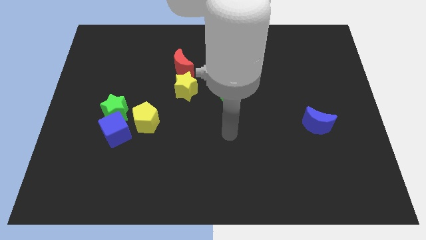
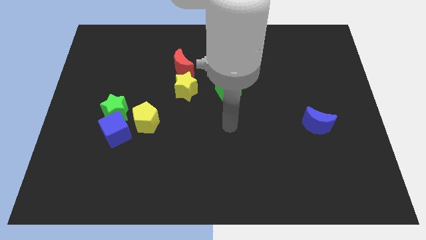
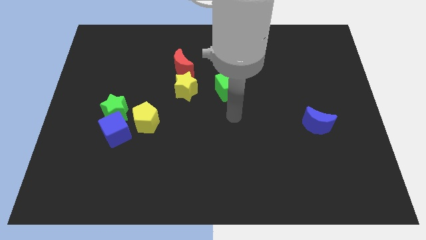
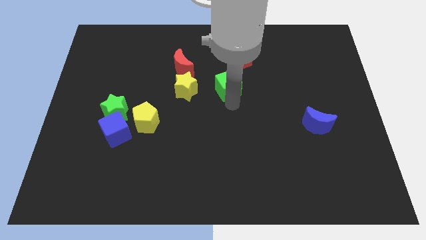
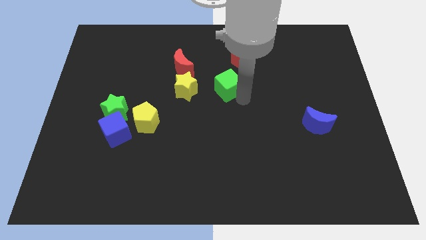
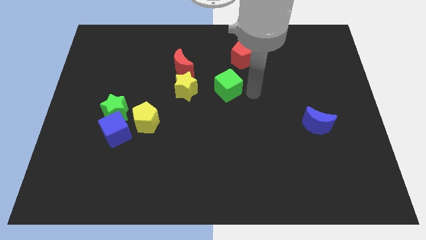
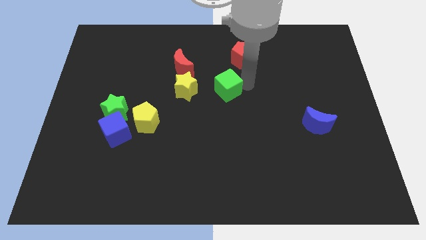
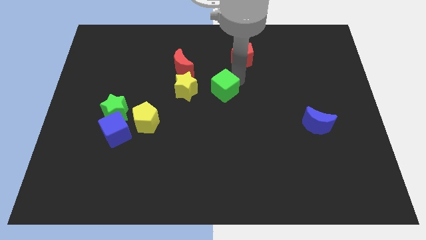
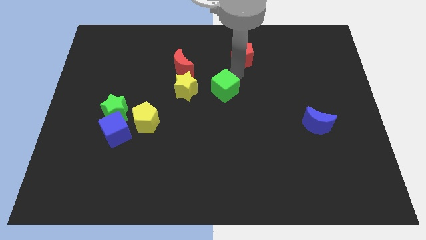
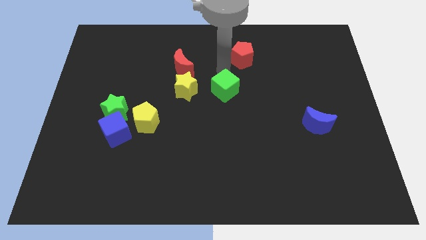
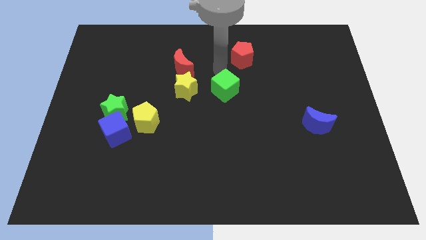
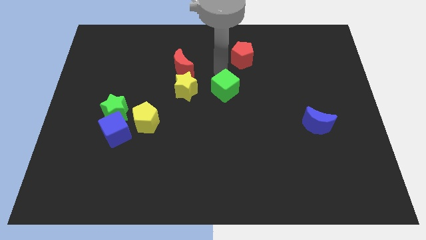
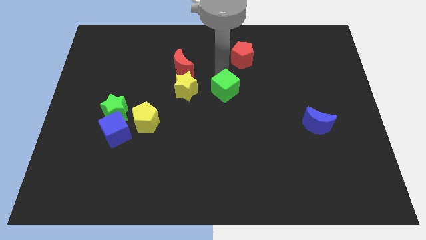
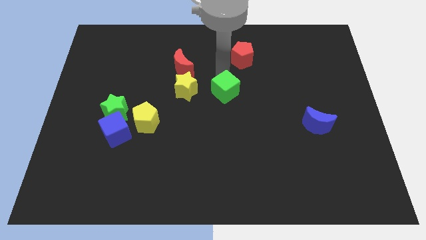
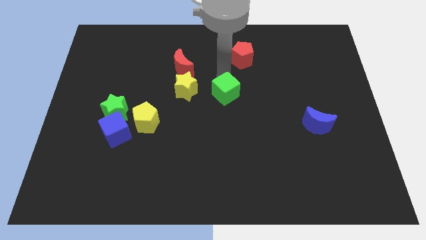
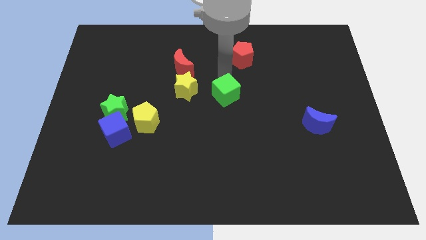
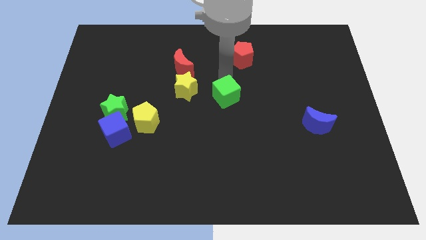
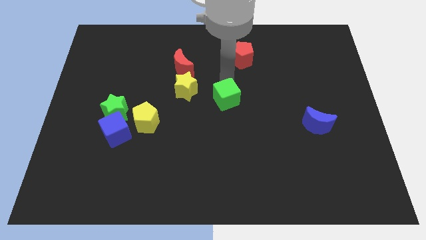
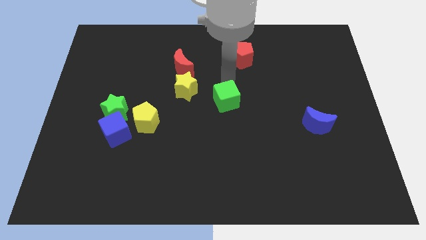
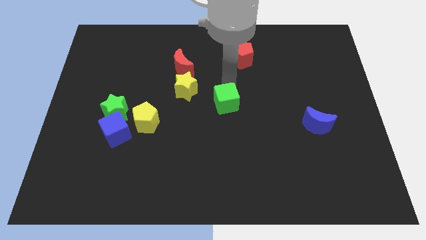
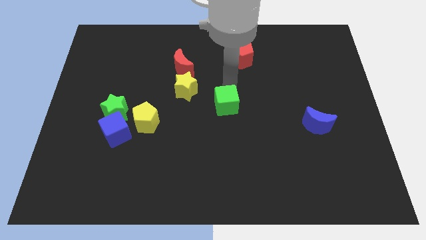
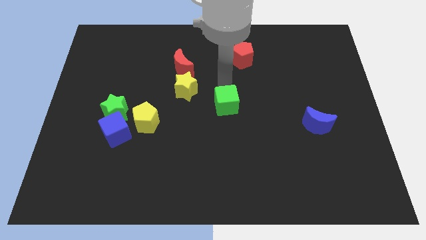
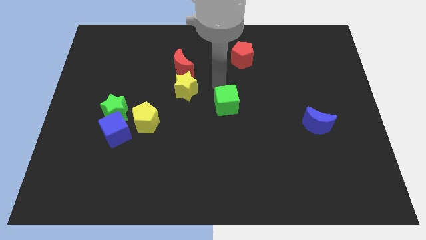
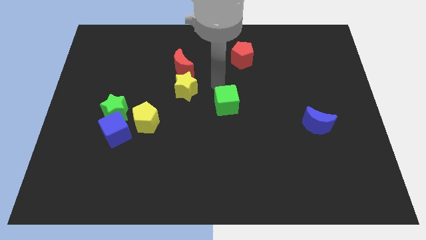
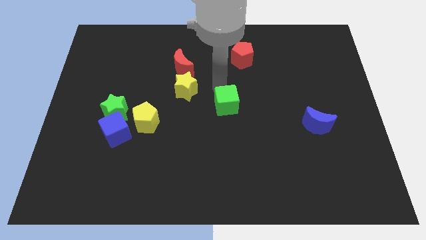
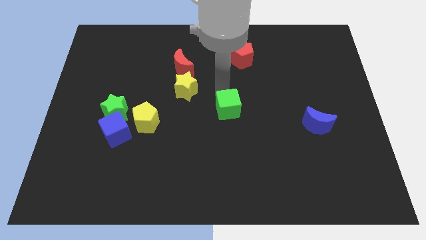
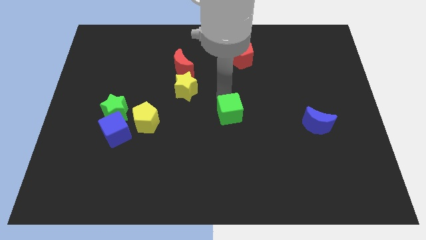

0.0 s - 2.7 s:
slide the green cube slightly down

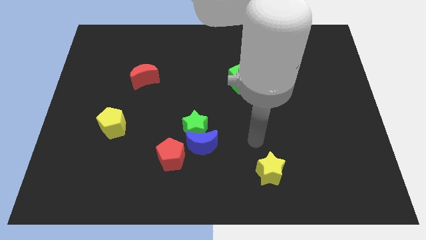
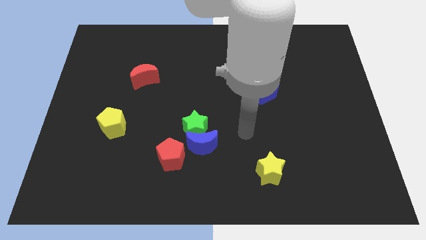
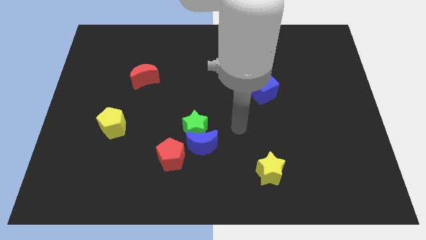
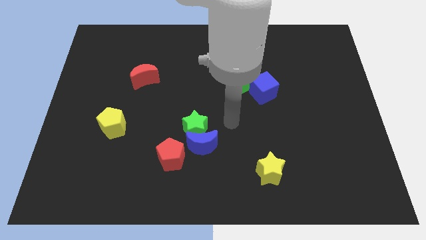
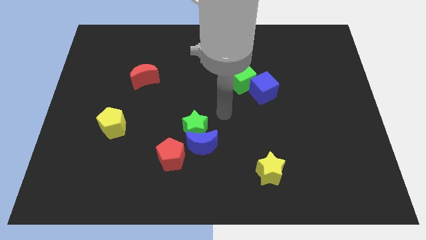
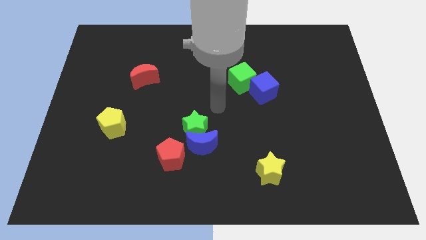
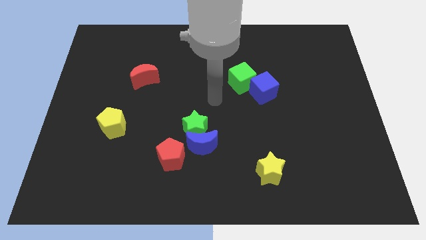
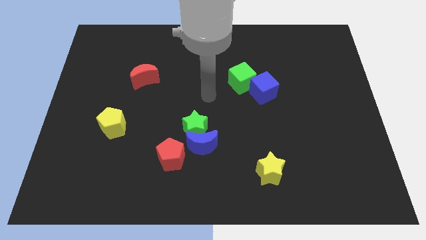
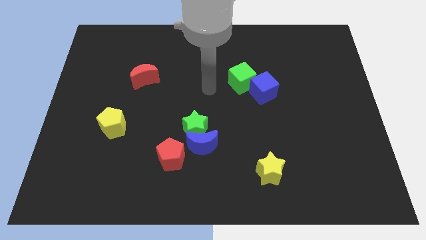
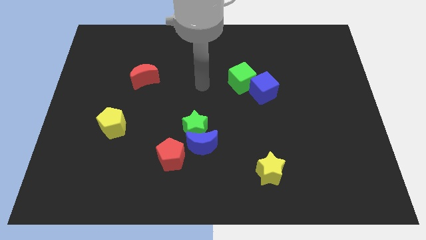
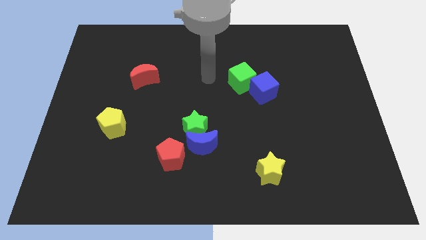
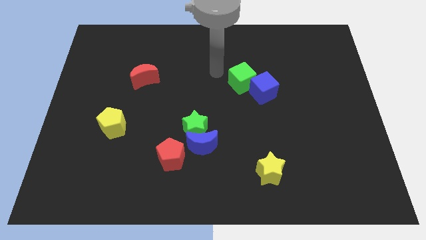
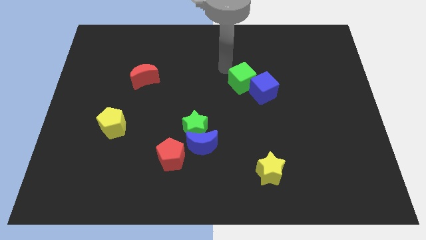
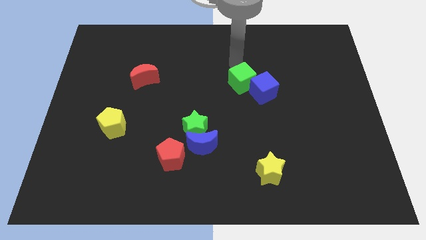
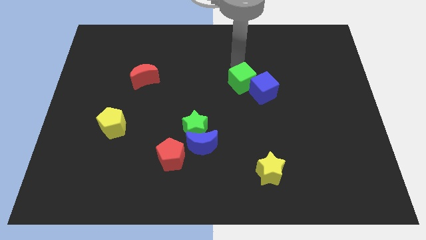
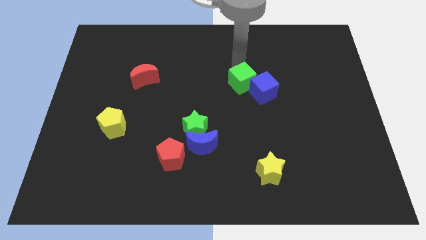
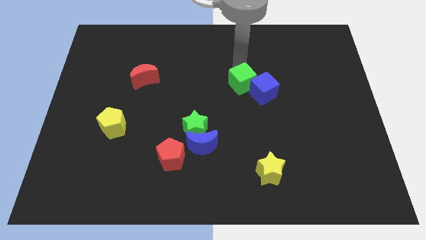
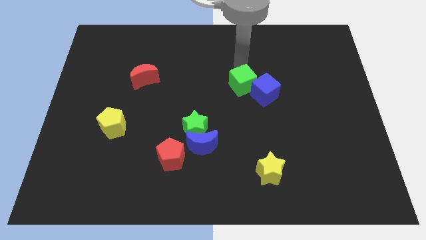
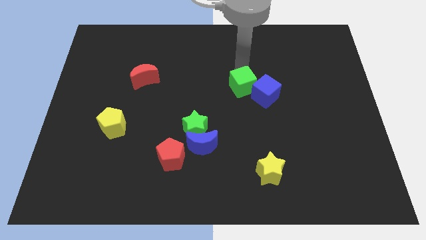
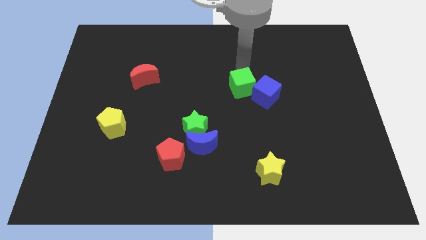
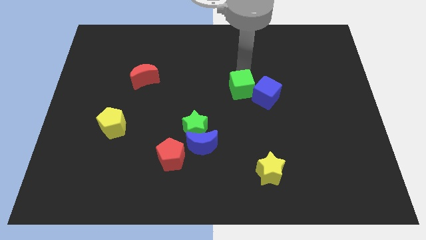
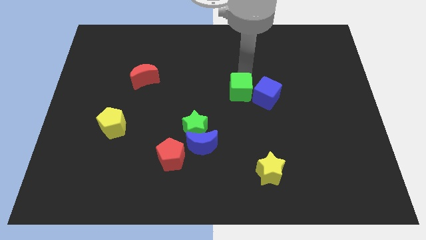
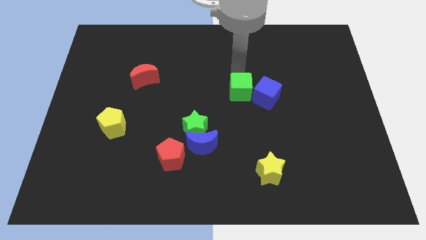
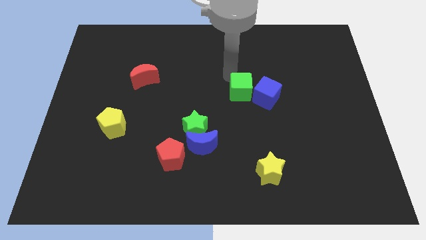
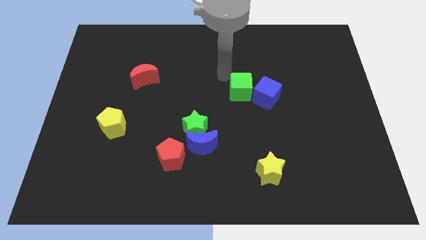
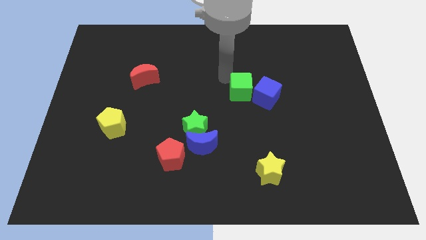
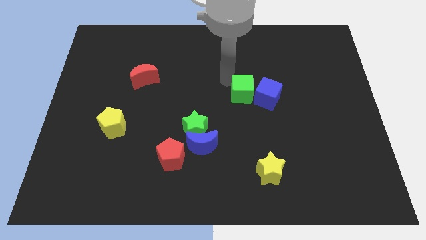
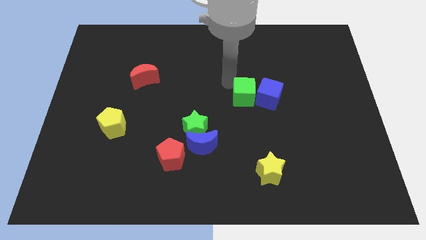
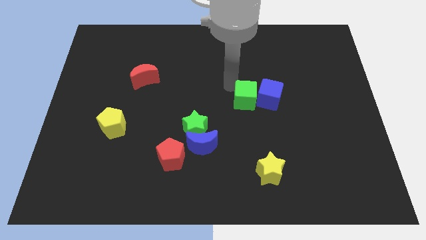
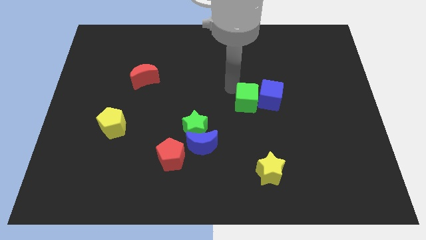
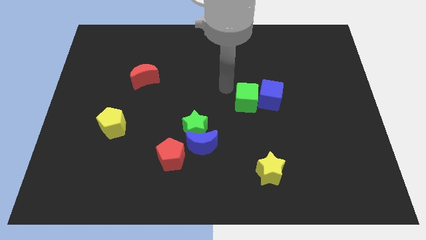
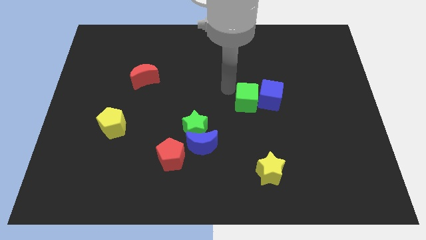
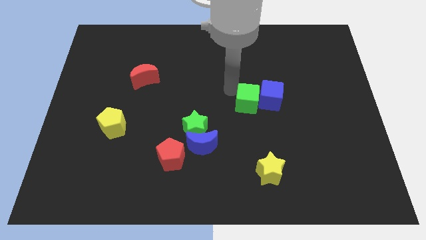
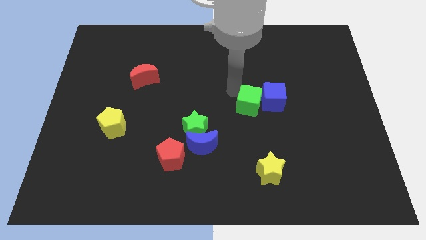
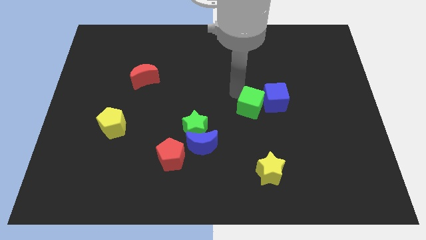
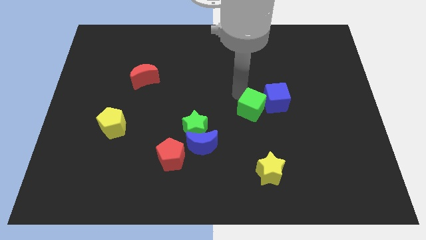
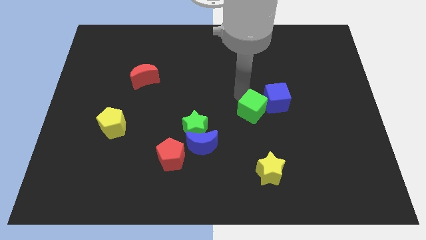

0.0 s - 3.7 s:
push the green cube somewhat down and then right

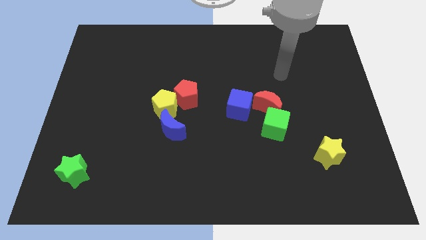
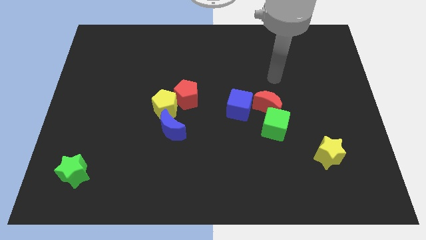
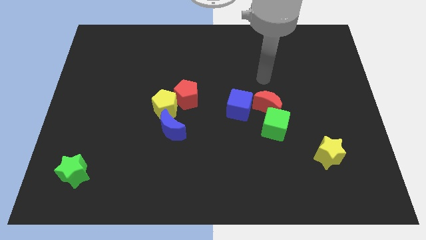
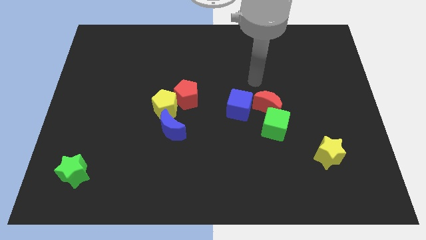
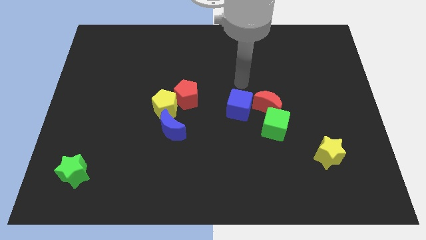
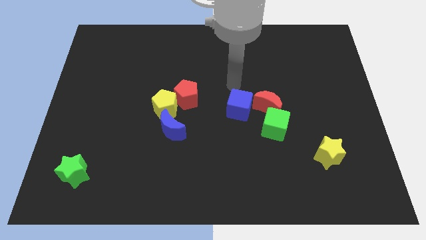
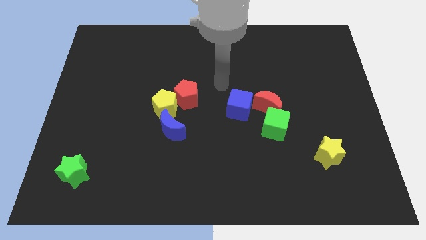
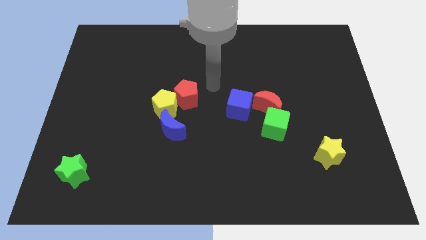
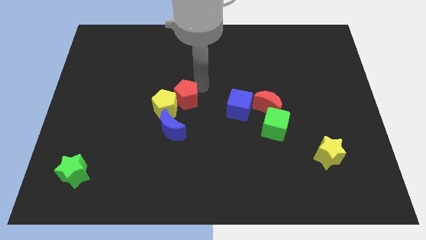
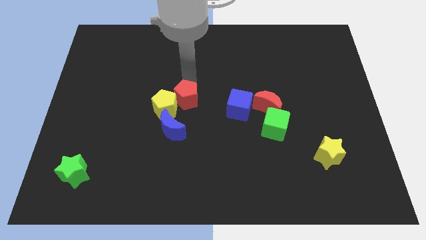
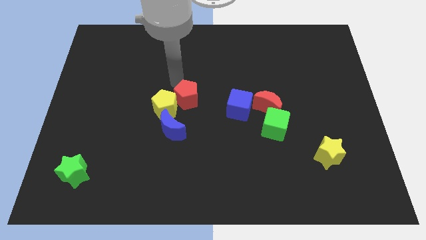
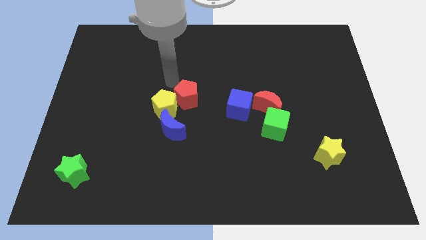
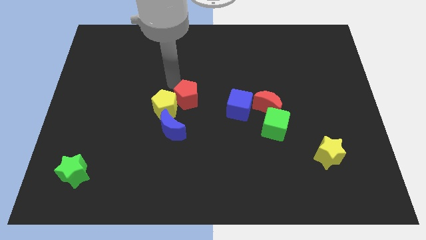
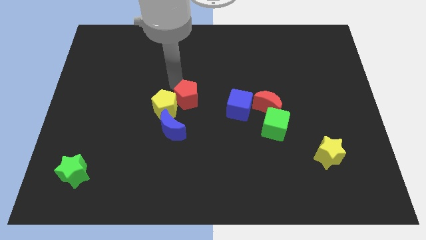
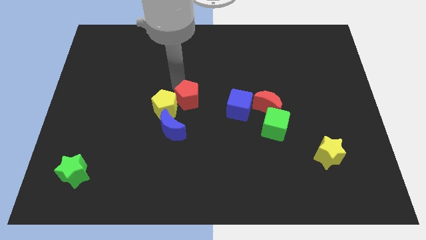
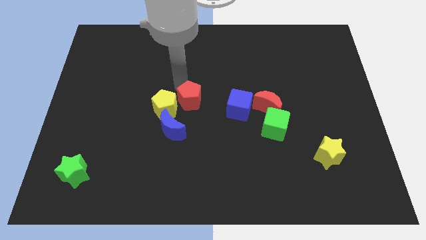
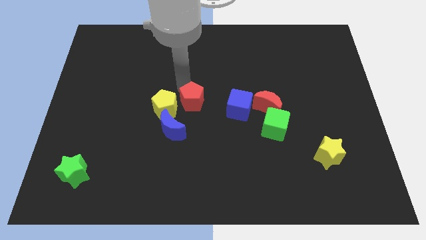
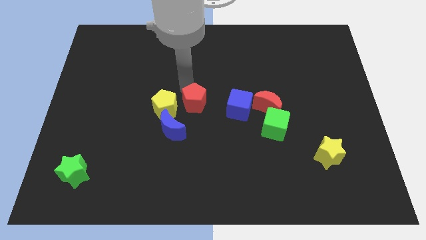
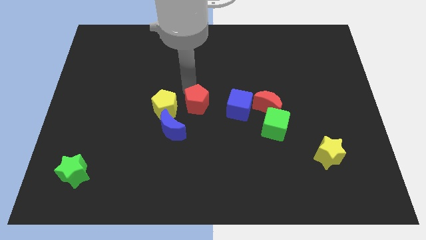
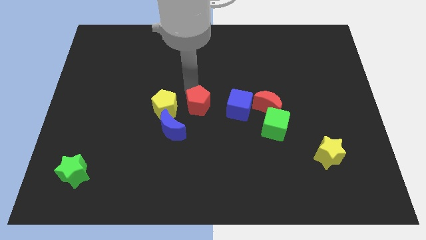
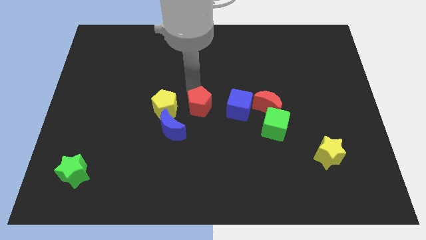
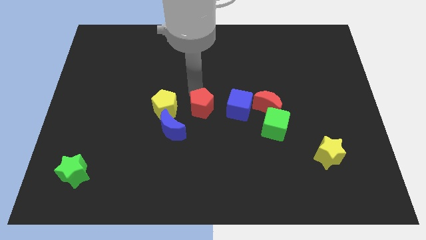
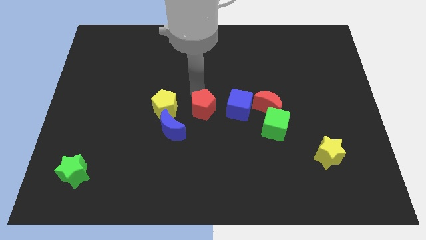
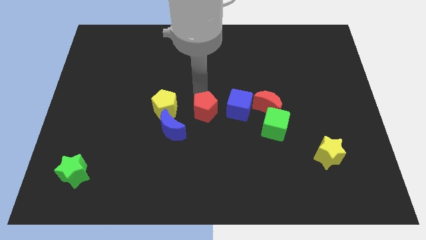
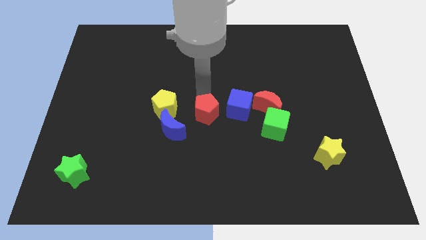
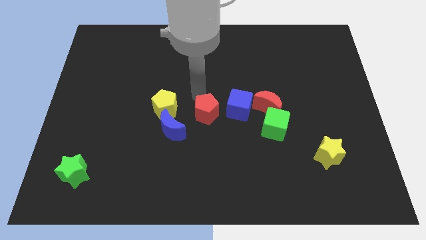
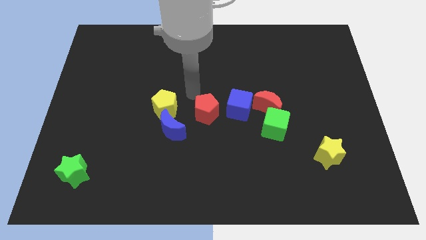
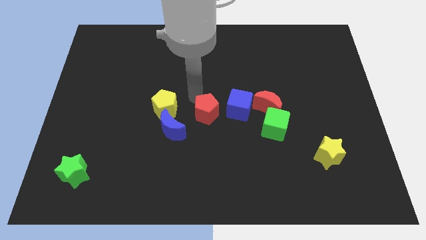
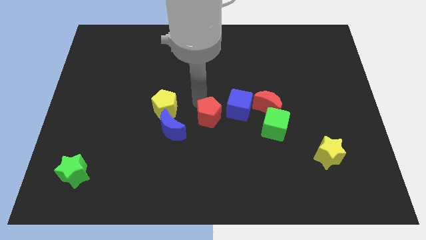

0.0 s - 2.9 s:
slightly move the red pentagon diagonally downwards and right
